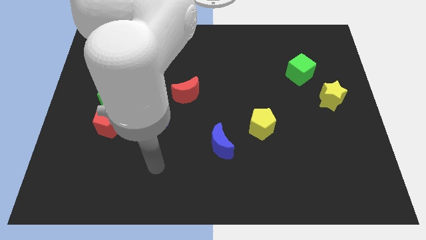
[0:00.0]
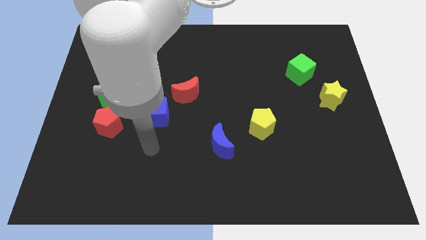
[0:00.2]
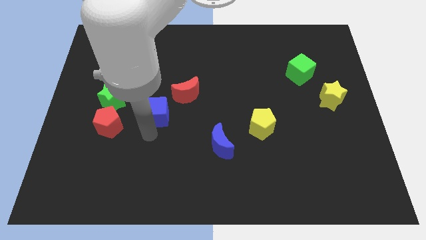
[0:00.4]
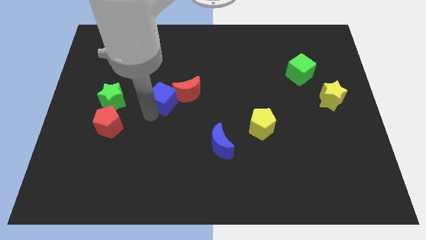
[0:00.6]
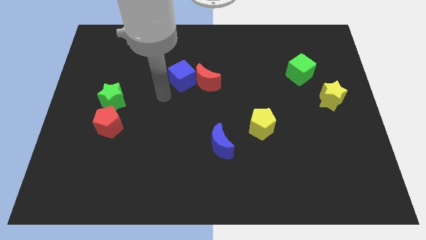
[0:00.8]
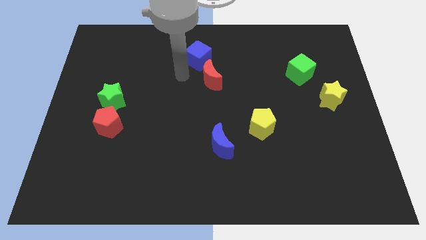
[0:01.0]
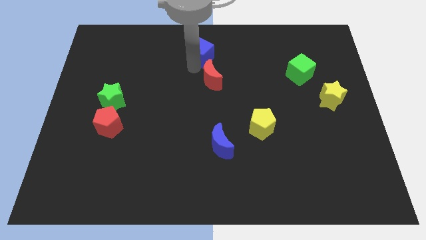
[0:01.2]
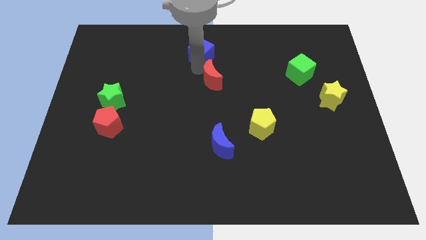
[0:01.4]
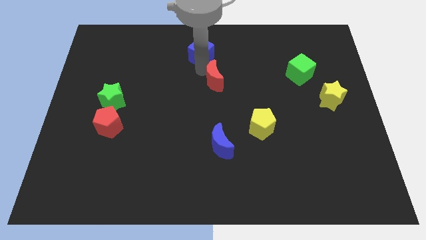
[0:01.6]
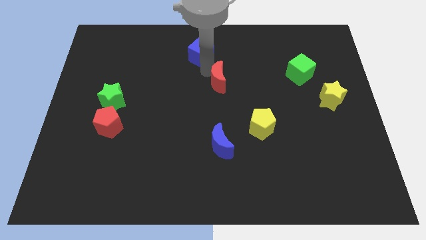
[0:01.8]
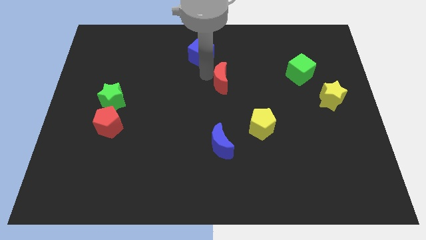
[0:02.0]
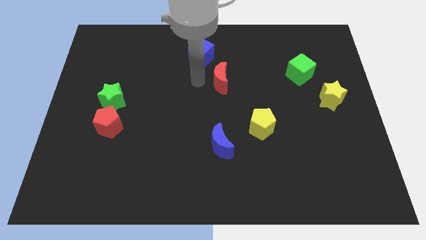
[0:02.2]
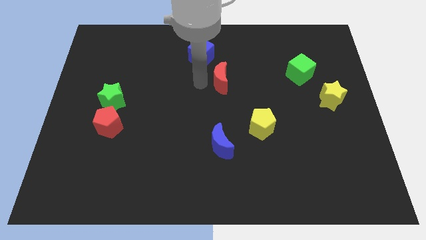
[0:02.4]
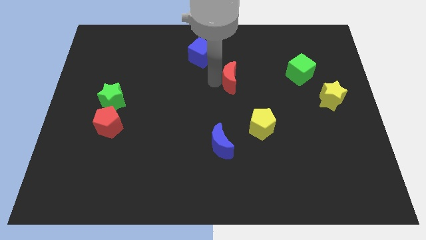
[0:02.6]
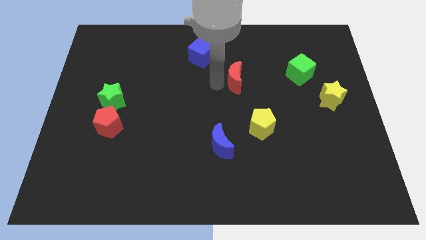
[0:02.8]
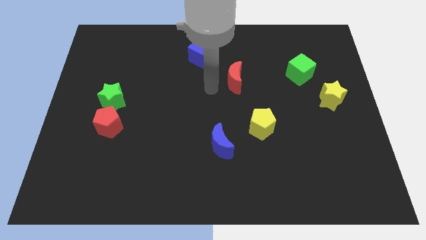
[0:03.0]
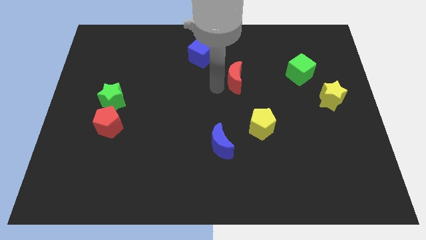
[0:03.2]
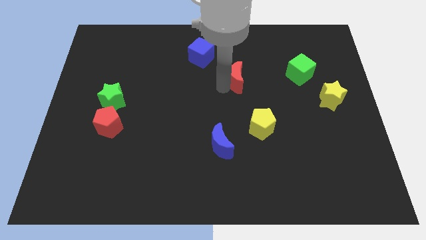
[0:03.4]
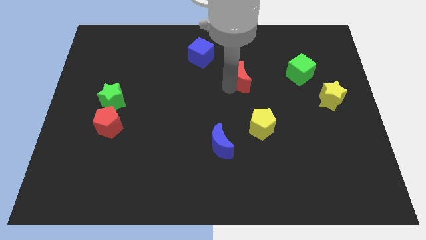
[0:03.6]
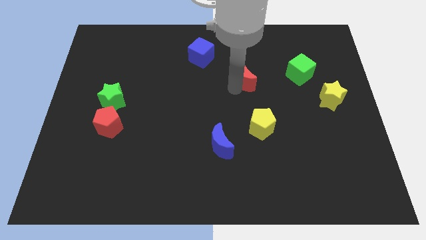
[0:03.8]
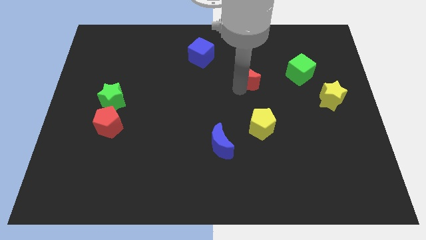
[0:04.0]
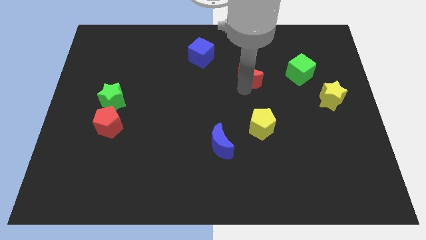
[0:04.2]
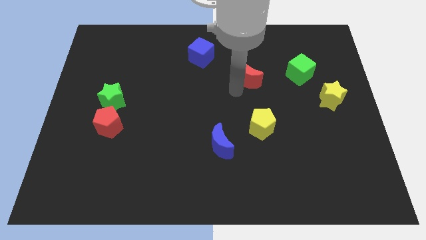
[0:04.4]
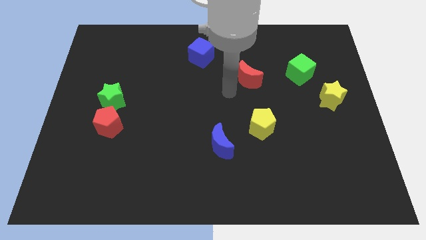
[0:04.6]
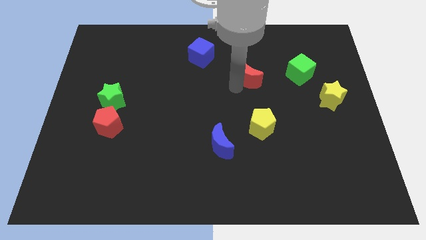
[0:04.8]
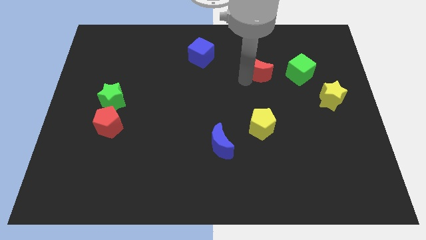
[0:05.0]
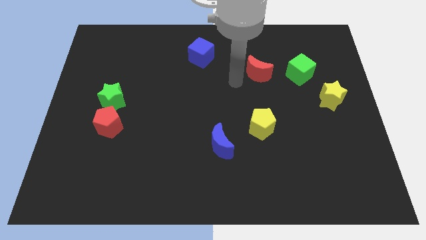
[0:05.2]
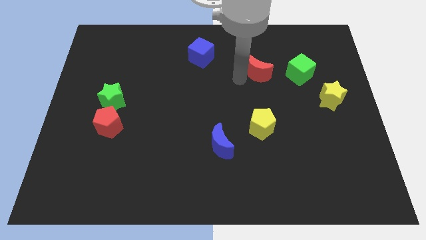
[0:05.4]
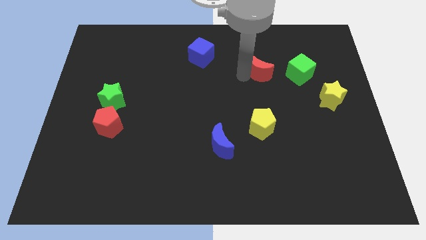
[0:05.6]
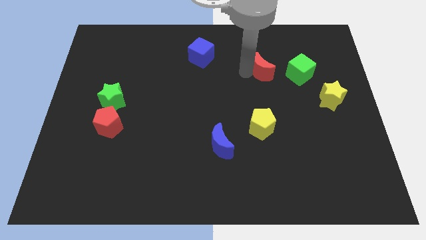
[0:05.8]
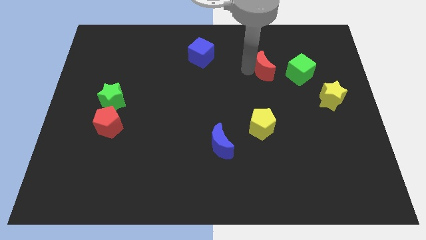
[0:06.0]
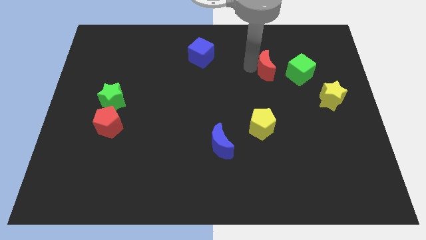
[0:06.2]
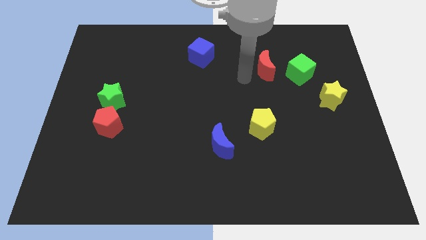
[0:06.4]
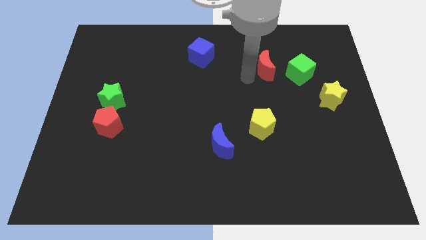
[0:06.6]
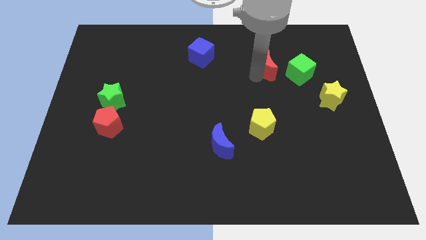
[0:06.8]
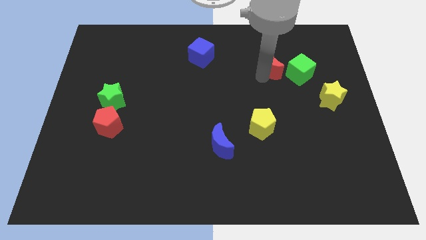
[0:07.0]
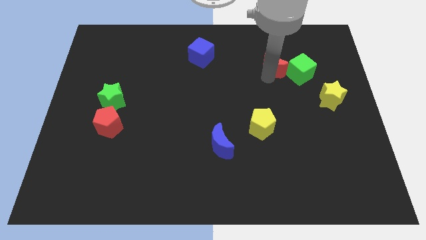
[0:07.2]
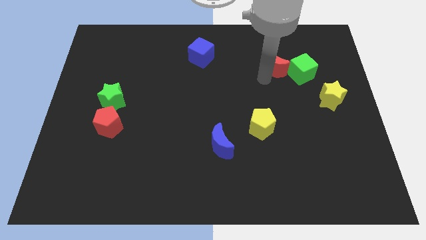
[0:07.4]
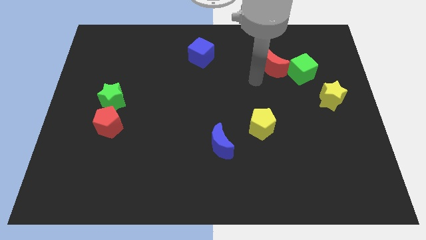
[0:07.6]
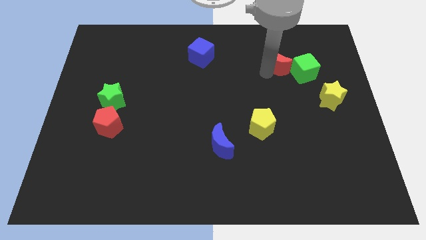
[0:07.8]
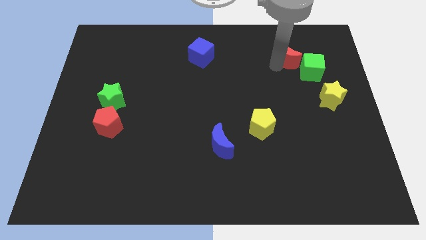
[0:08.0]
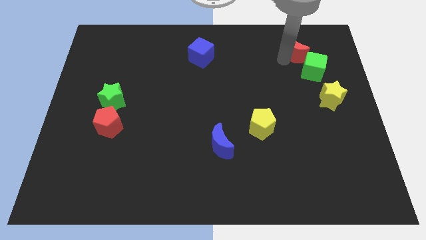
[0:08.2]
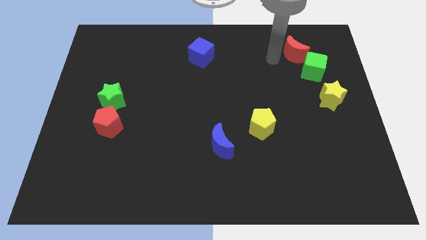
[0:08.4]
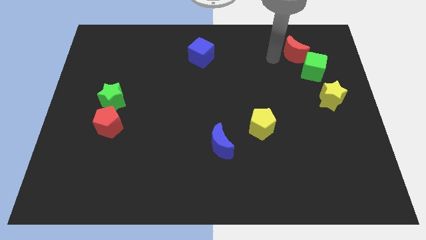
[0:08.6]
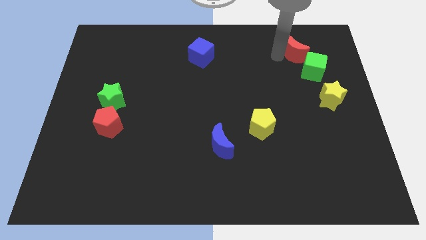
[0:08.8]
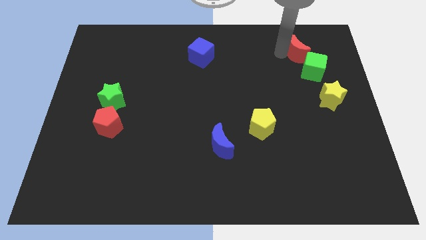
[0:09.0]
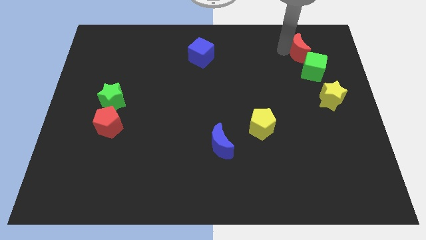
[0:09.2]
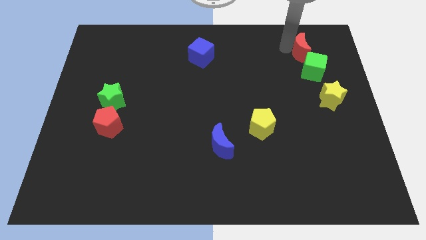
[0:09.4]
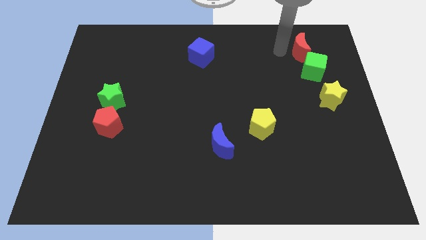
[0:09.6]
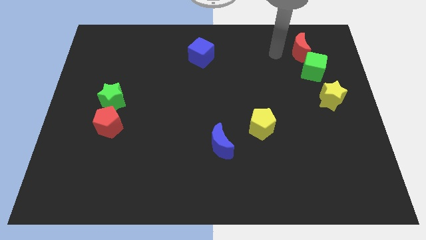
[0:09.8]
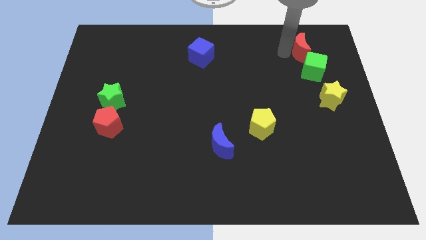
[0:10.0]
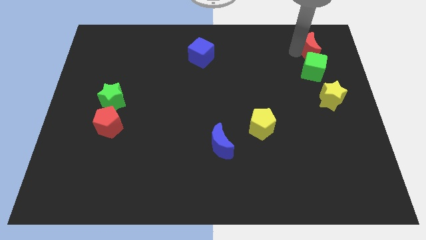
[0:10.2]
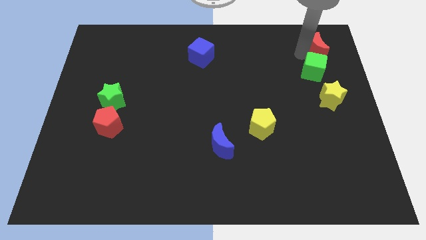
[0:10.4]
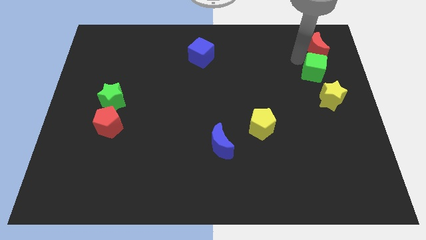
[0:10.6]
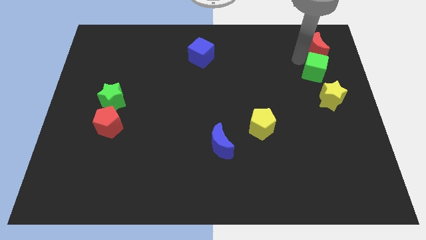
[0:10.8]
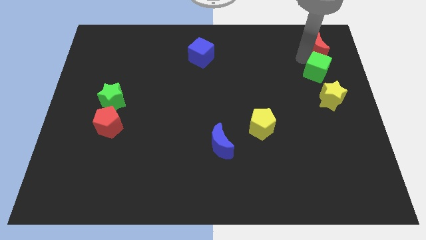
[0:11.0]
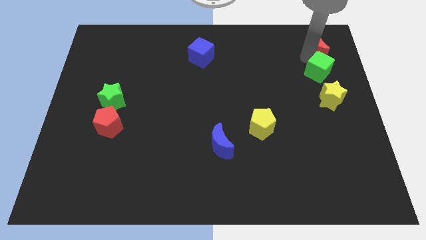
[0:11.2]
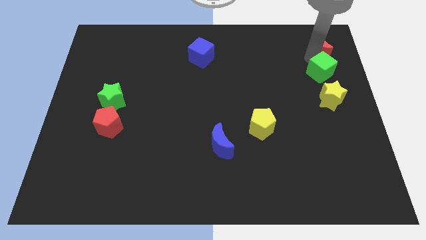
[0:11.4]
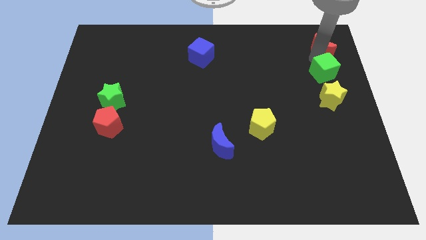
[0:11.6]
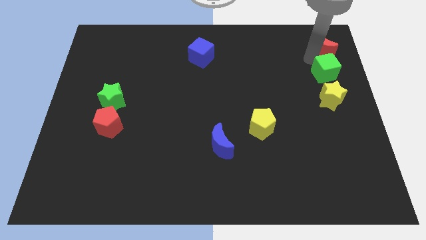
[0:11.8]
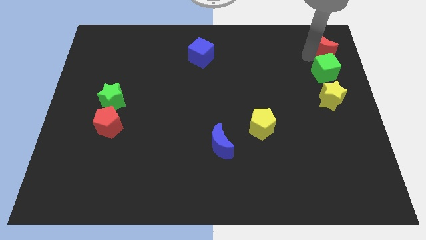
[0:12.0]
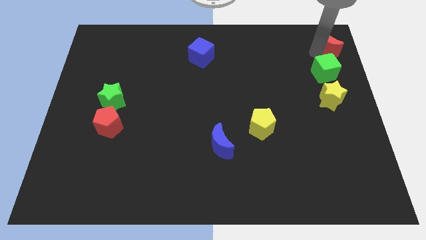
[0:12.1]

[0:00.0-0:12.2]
push the red moon to the upper right corner

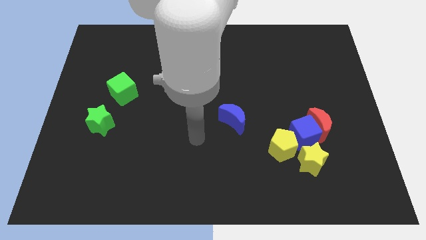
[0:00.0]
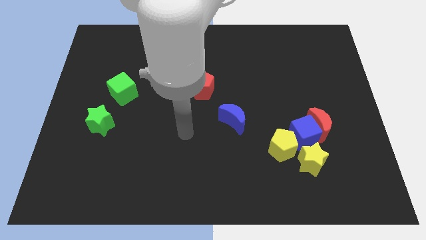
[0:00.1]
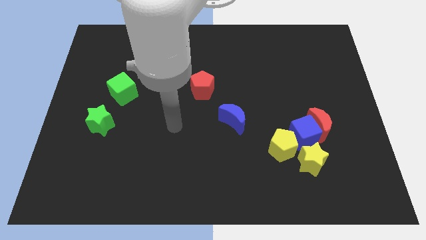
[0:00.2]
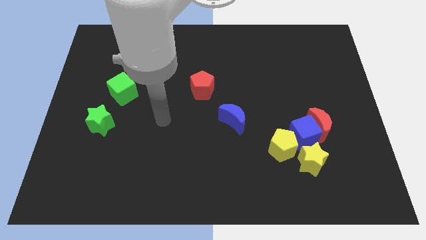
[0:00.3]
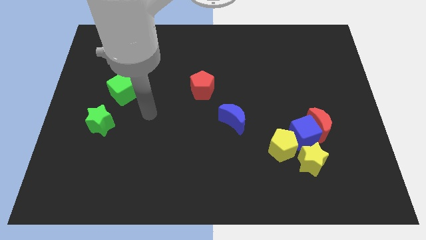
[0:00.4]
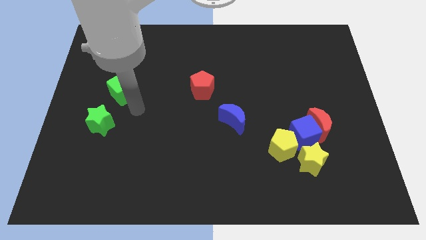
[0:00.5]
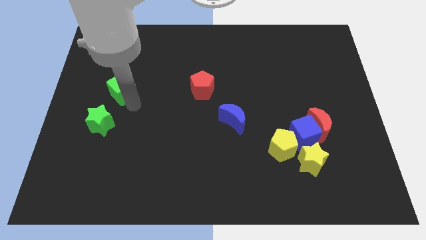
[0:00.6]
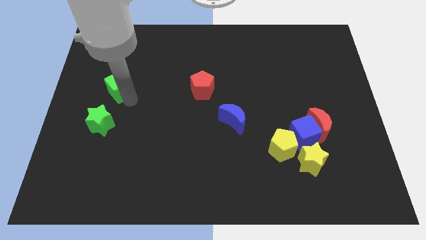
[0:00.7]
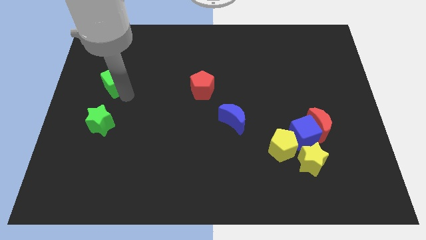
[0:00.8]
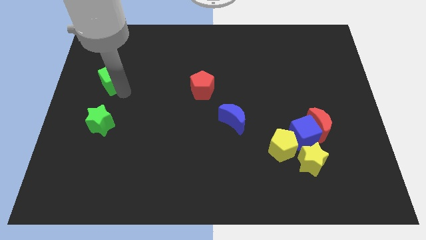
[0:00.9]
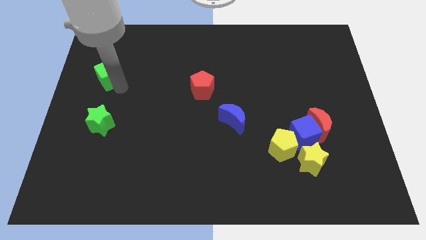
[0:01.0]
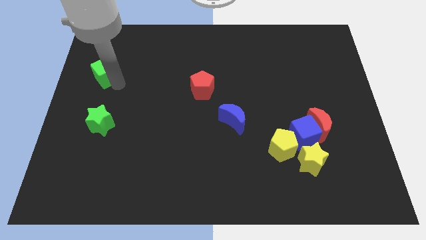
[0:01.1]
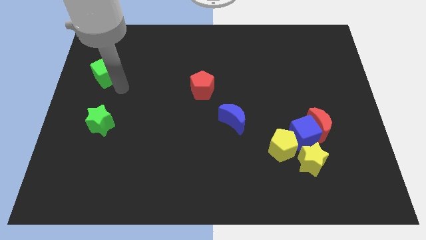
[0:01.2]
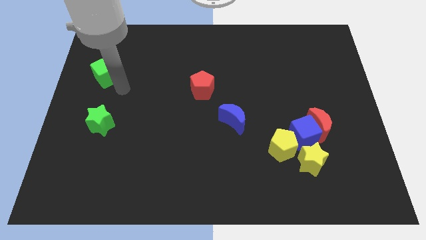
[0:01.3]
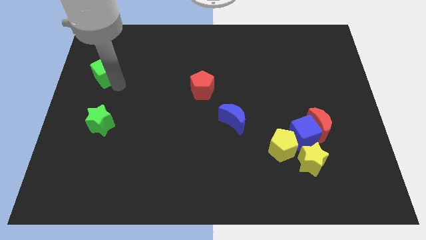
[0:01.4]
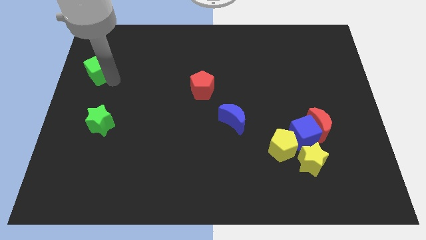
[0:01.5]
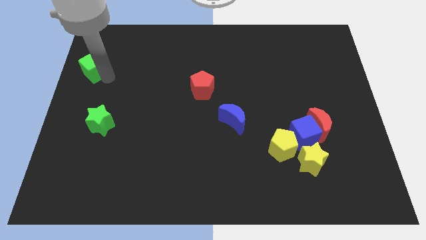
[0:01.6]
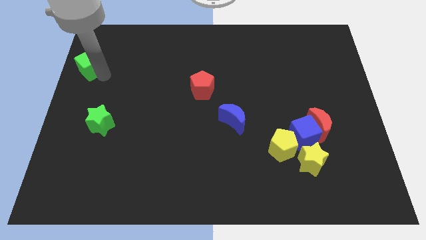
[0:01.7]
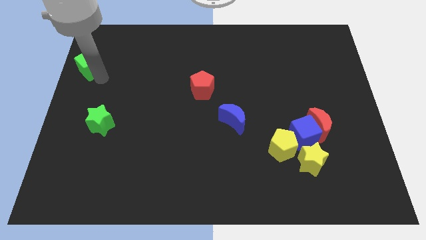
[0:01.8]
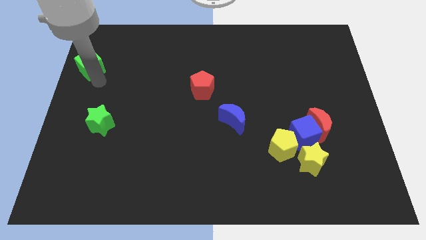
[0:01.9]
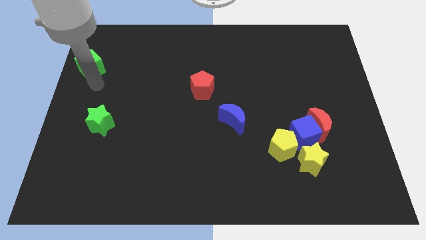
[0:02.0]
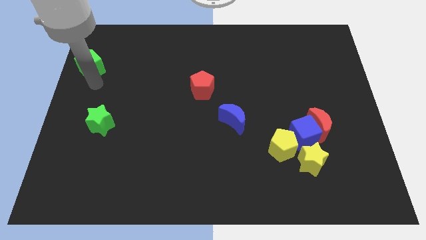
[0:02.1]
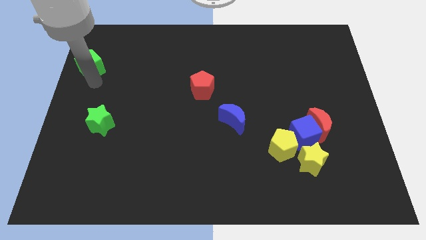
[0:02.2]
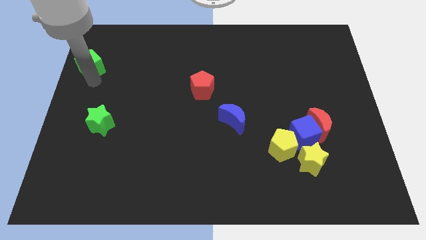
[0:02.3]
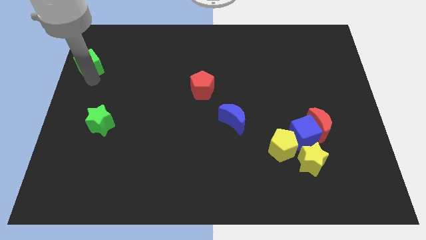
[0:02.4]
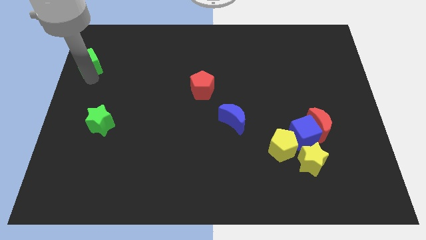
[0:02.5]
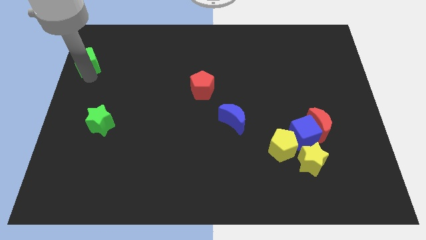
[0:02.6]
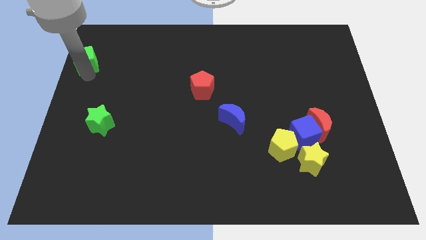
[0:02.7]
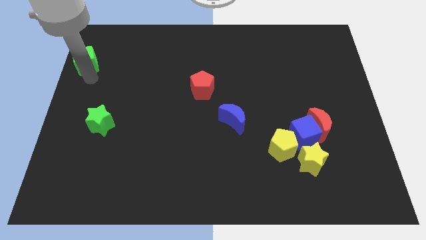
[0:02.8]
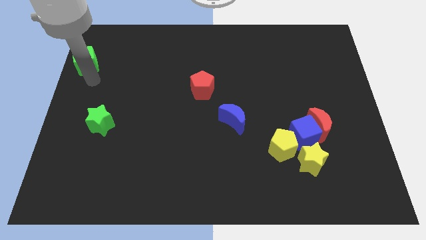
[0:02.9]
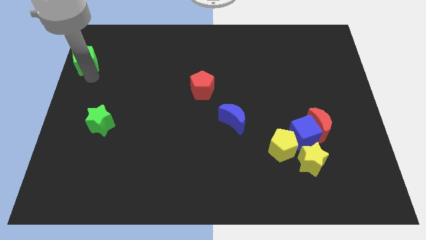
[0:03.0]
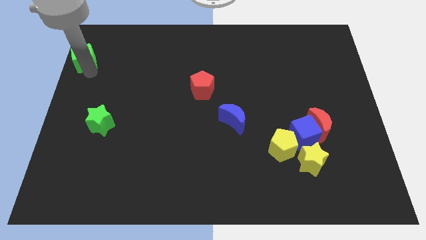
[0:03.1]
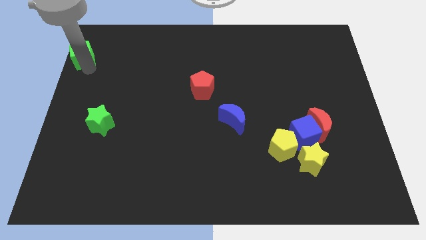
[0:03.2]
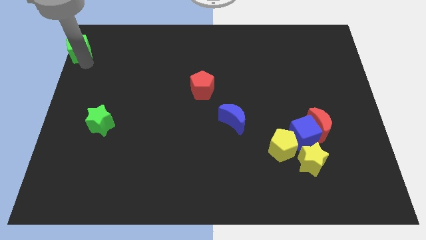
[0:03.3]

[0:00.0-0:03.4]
move the green cube to the top left
